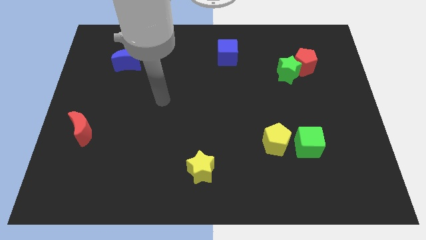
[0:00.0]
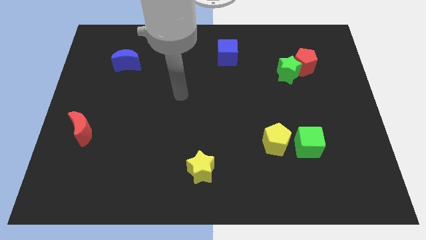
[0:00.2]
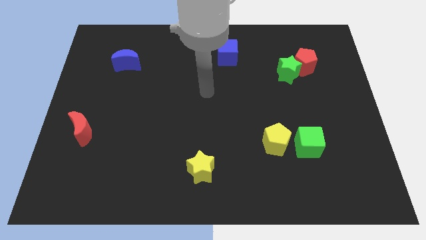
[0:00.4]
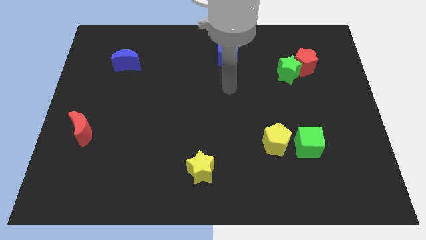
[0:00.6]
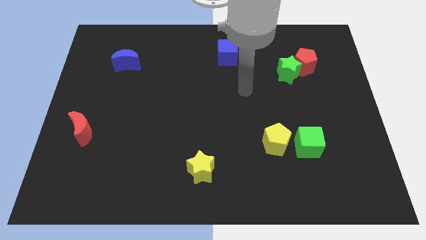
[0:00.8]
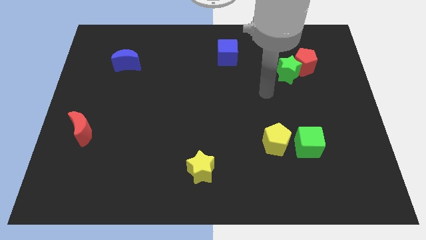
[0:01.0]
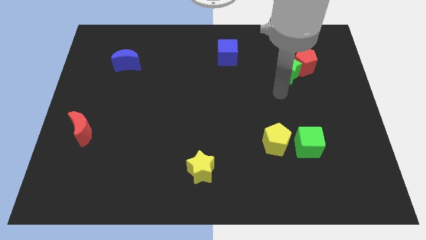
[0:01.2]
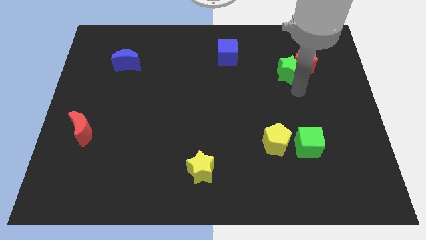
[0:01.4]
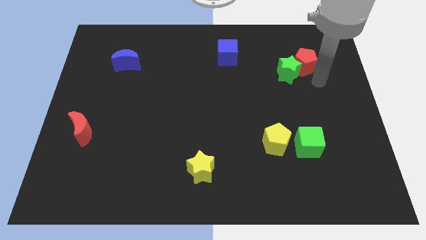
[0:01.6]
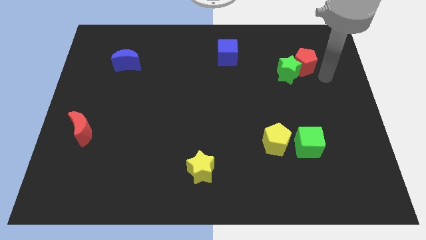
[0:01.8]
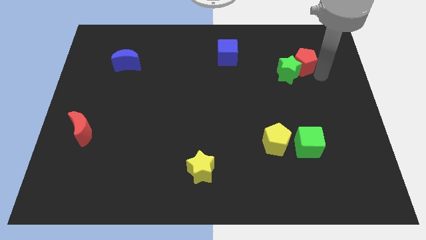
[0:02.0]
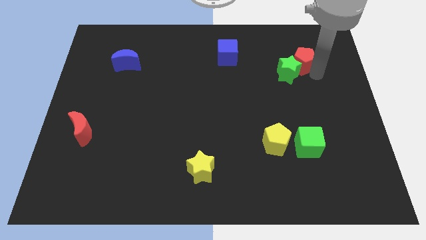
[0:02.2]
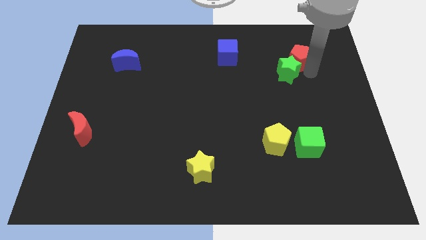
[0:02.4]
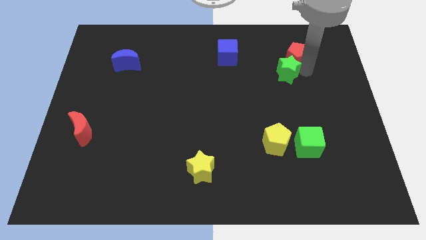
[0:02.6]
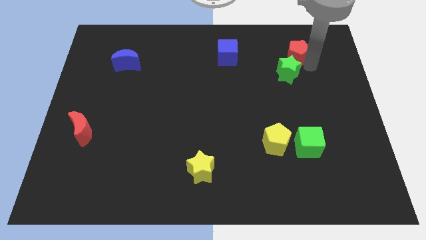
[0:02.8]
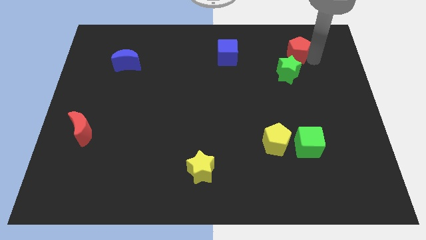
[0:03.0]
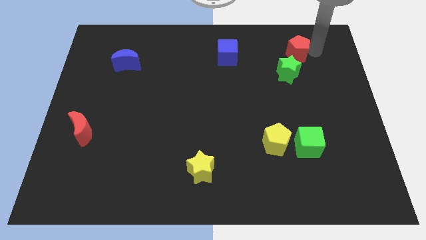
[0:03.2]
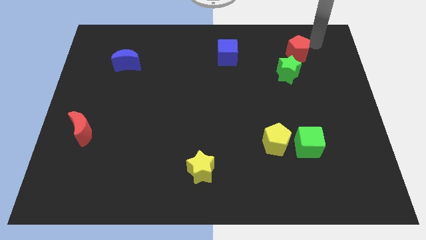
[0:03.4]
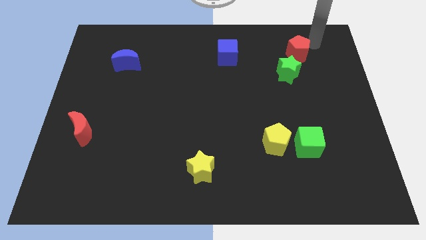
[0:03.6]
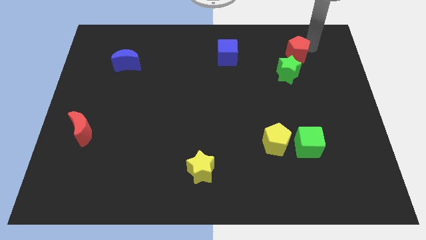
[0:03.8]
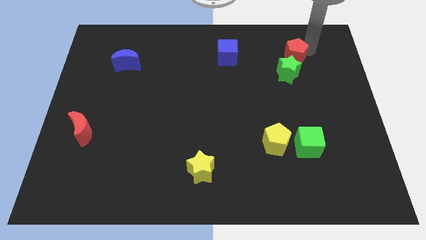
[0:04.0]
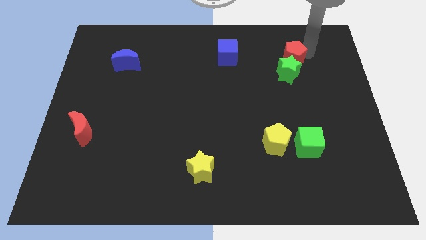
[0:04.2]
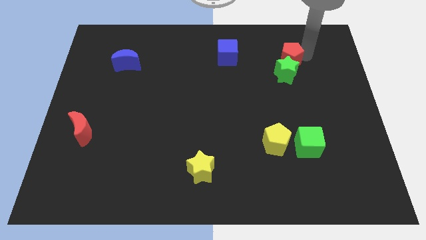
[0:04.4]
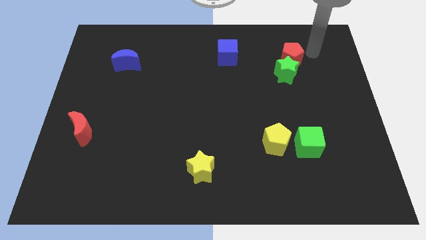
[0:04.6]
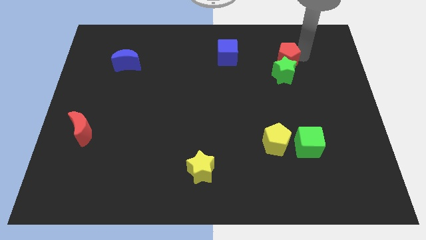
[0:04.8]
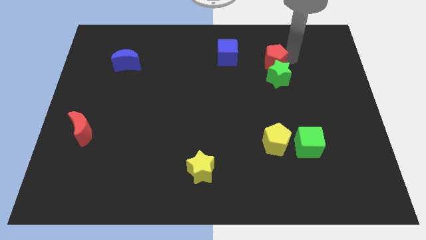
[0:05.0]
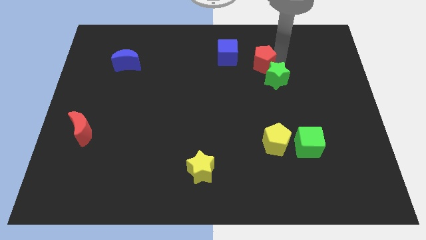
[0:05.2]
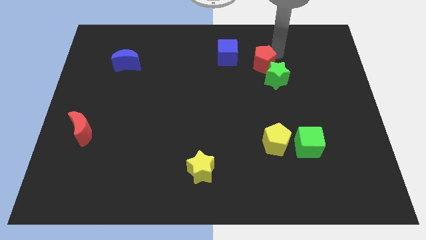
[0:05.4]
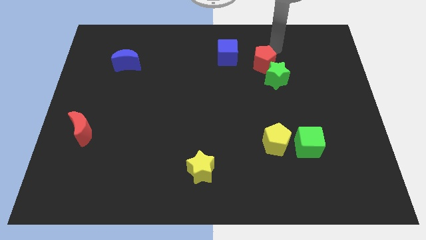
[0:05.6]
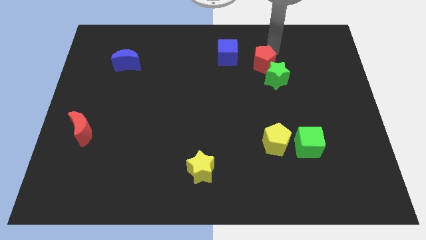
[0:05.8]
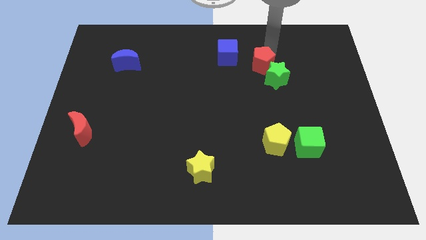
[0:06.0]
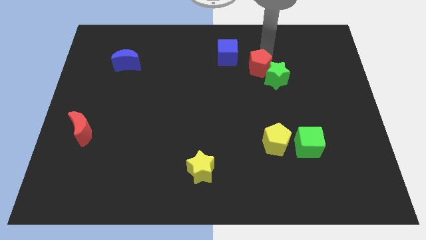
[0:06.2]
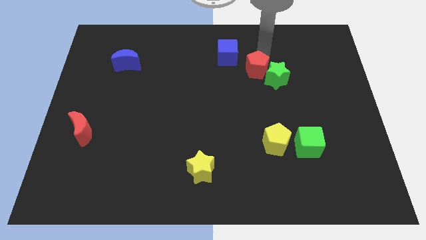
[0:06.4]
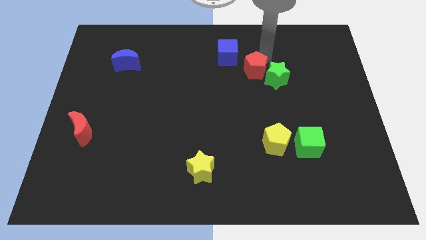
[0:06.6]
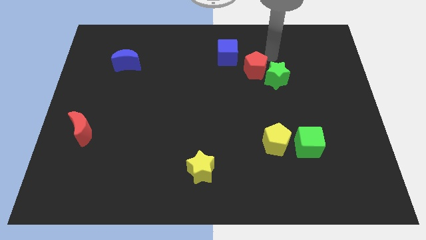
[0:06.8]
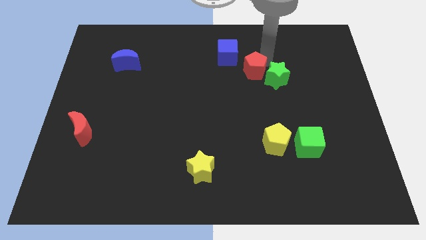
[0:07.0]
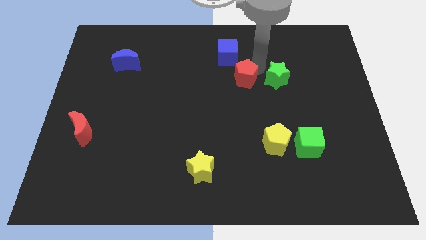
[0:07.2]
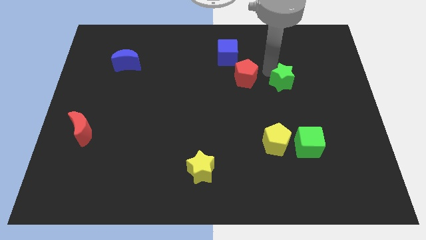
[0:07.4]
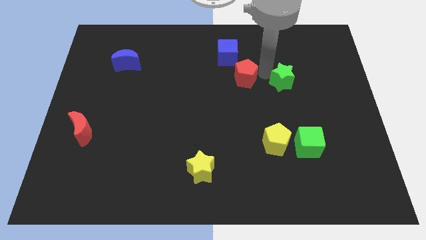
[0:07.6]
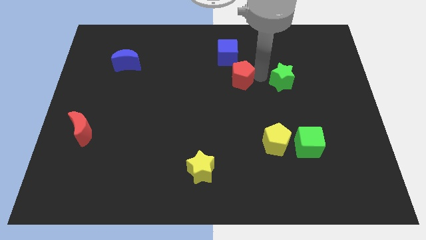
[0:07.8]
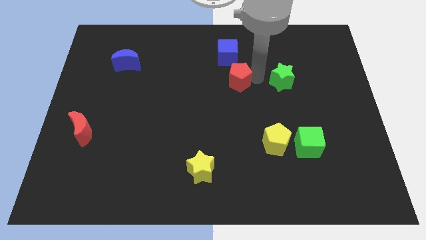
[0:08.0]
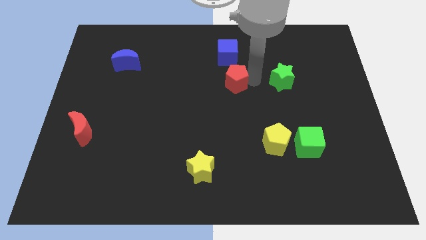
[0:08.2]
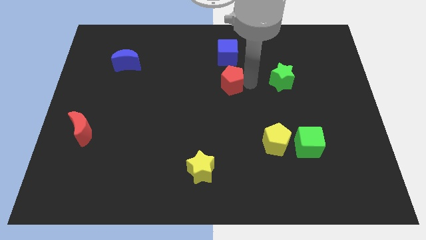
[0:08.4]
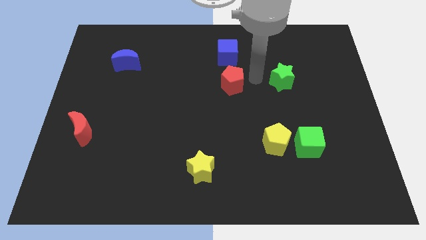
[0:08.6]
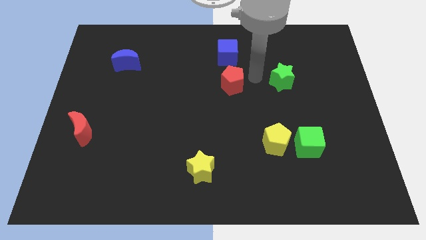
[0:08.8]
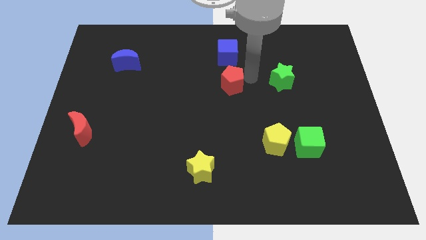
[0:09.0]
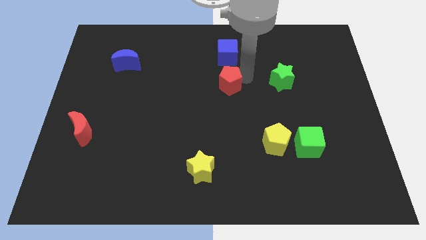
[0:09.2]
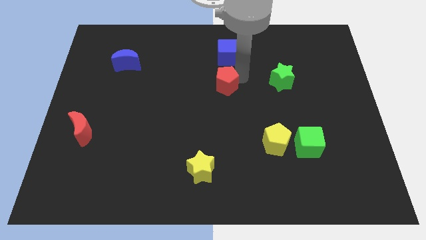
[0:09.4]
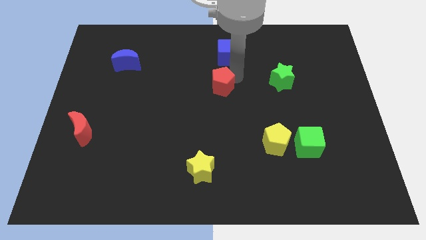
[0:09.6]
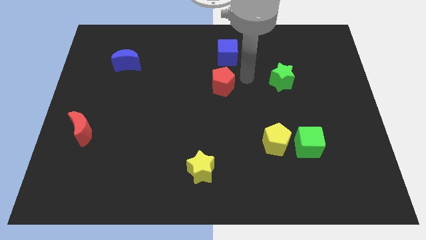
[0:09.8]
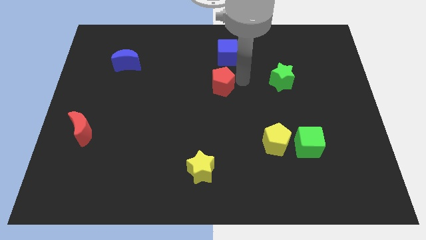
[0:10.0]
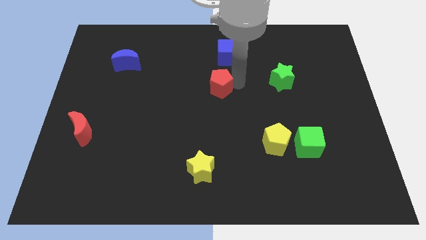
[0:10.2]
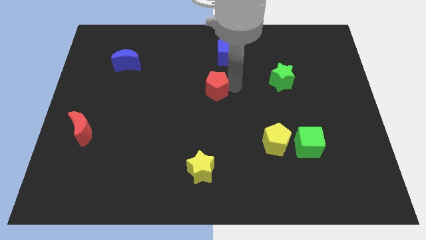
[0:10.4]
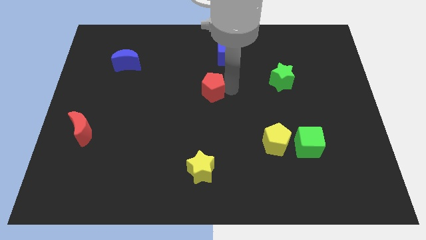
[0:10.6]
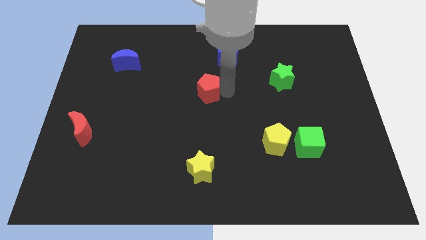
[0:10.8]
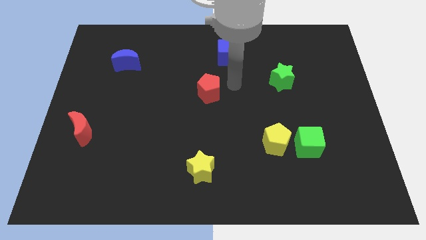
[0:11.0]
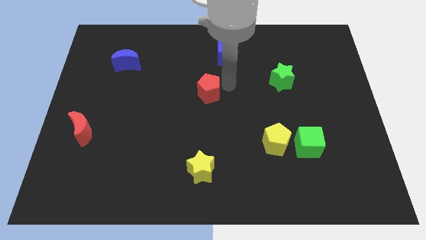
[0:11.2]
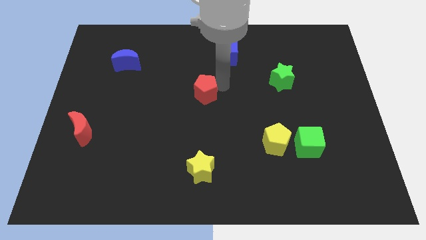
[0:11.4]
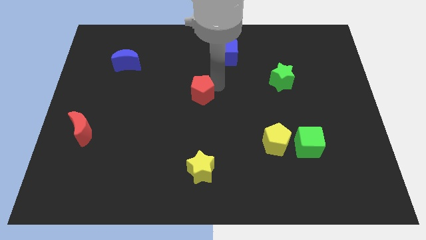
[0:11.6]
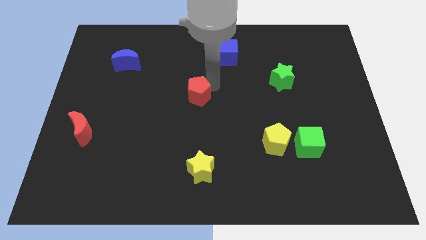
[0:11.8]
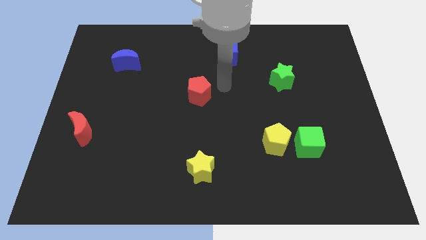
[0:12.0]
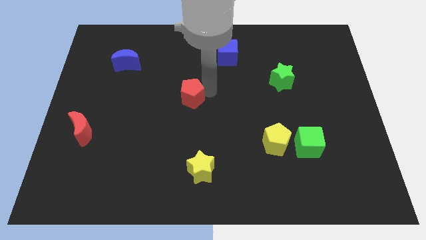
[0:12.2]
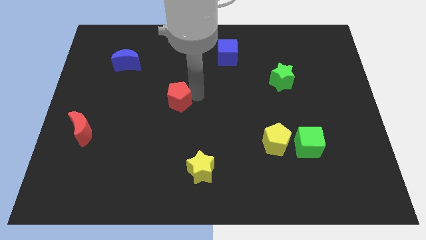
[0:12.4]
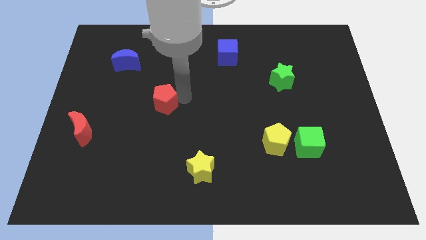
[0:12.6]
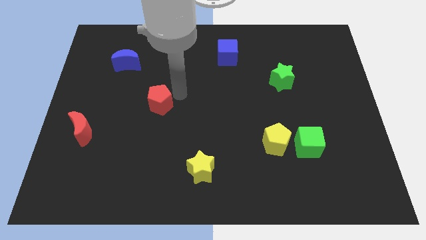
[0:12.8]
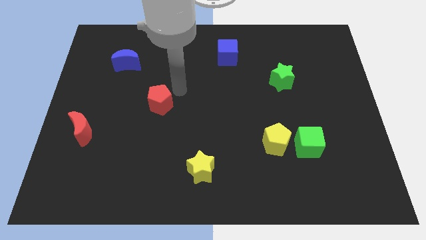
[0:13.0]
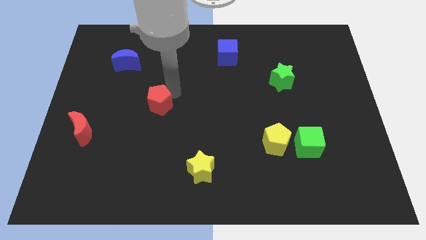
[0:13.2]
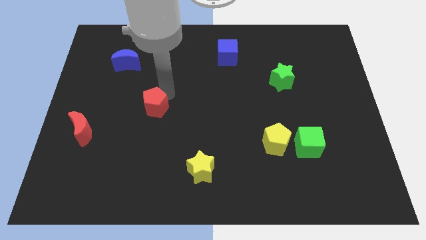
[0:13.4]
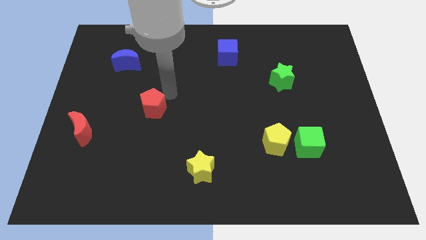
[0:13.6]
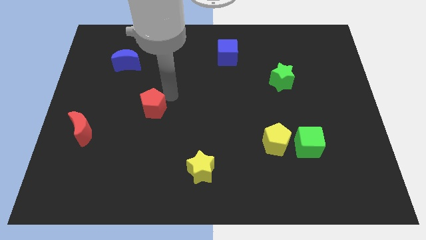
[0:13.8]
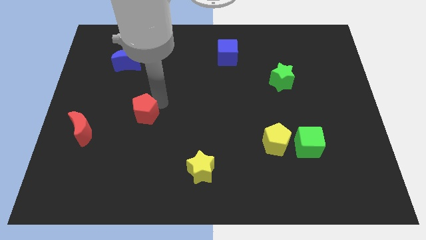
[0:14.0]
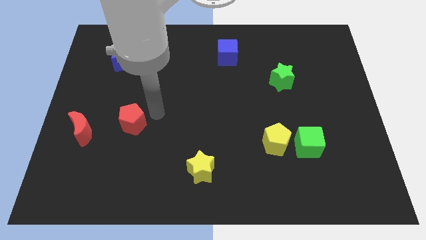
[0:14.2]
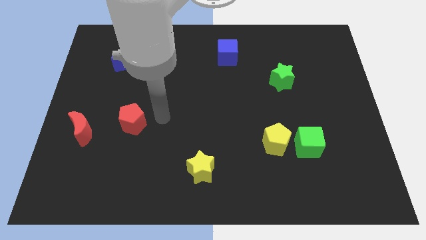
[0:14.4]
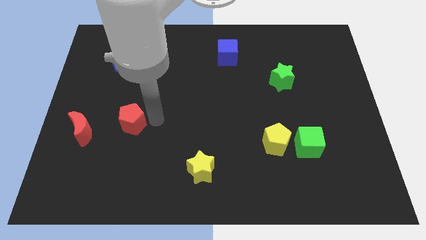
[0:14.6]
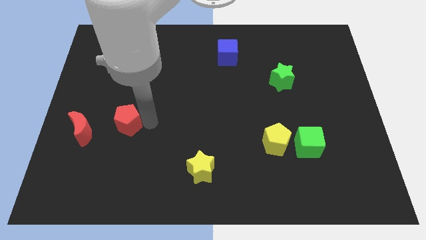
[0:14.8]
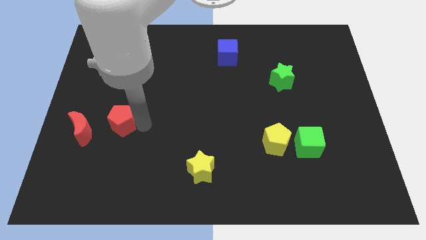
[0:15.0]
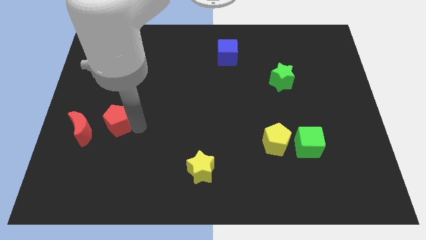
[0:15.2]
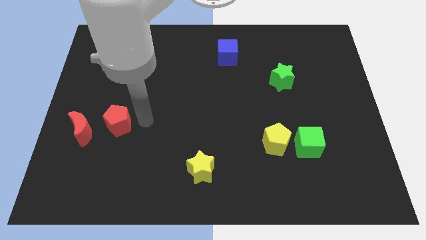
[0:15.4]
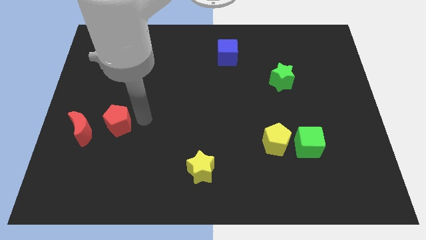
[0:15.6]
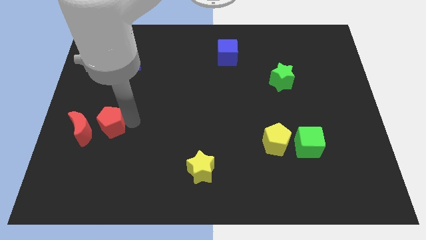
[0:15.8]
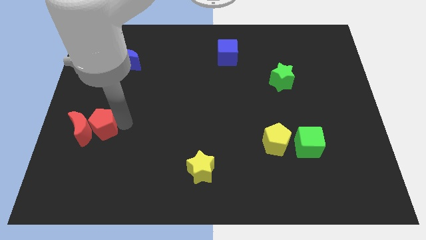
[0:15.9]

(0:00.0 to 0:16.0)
move the red pentagon next to the red moon
